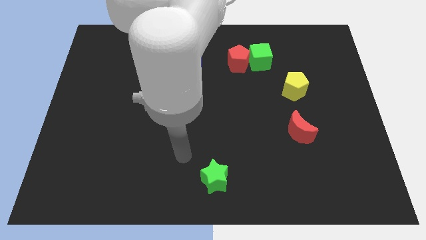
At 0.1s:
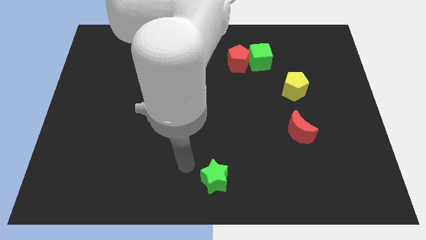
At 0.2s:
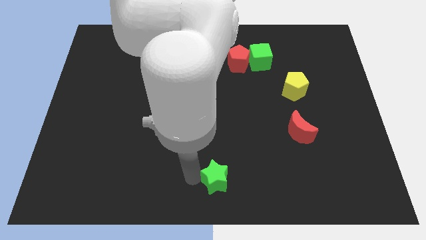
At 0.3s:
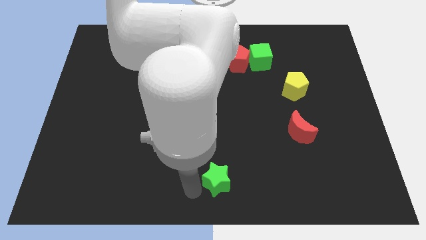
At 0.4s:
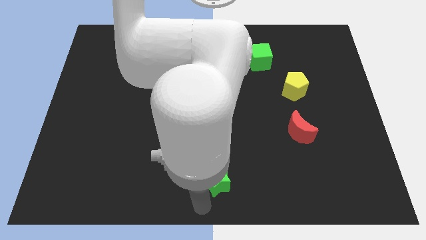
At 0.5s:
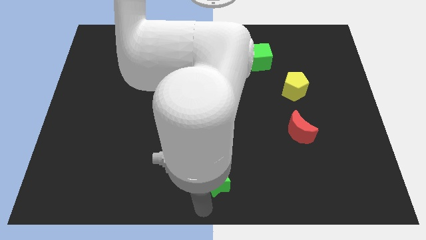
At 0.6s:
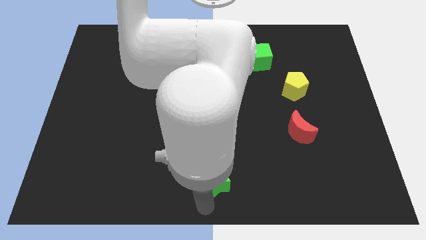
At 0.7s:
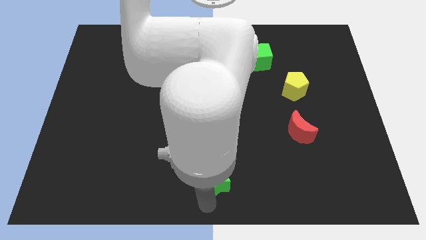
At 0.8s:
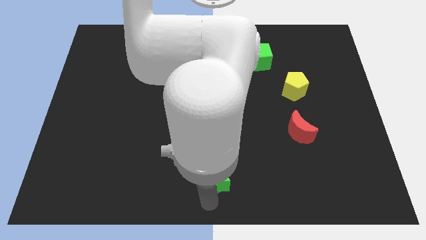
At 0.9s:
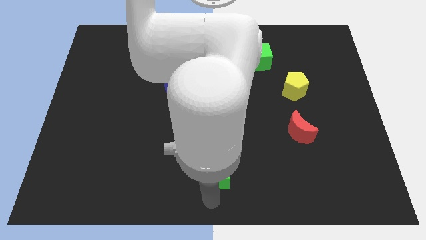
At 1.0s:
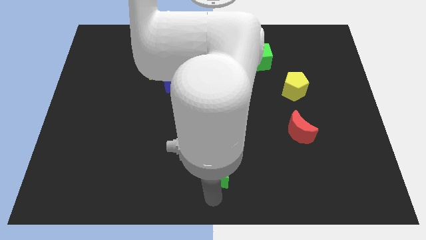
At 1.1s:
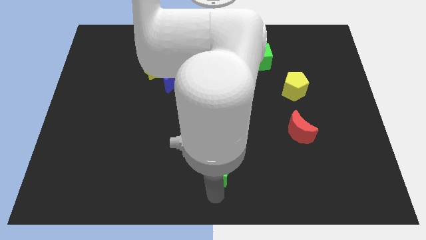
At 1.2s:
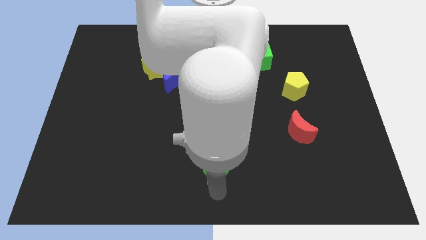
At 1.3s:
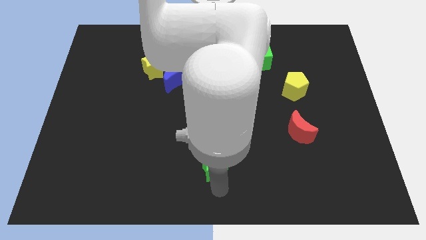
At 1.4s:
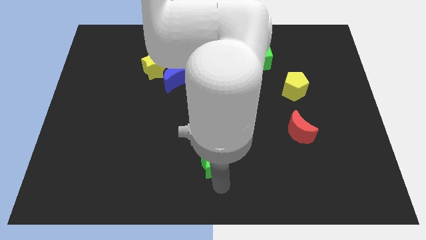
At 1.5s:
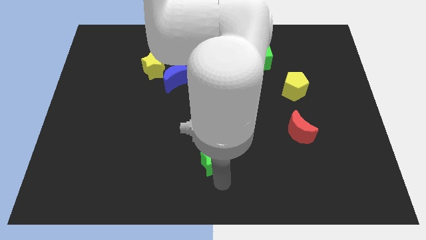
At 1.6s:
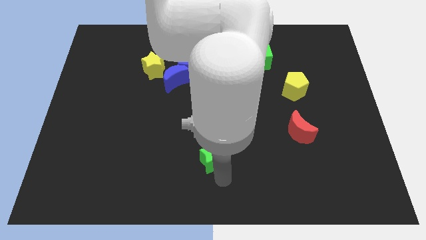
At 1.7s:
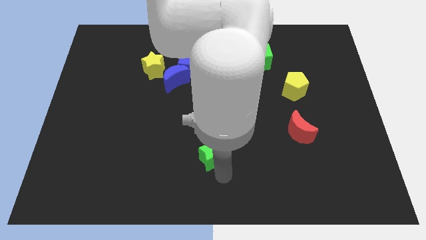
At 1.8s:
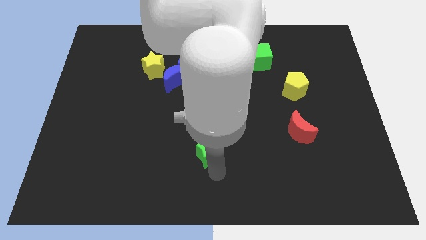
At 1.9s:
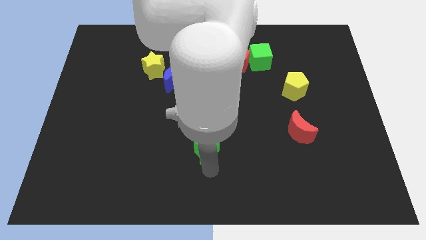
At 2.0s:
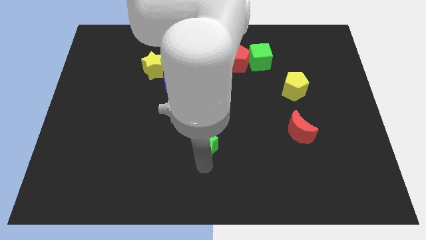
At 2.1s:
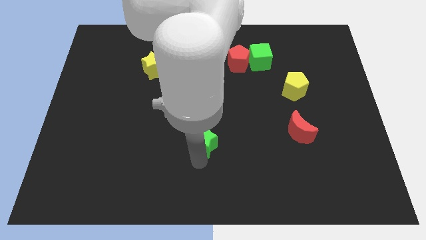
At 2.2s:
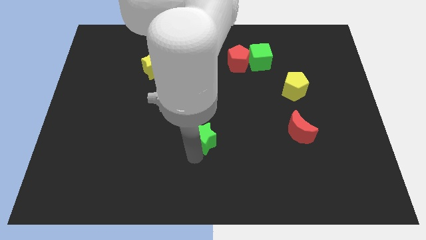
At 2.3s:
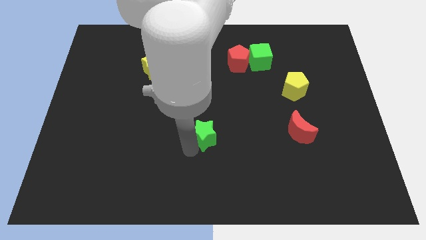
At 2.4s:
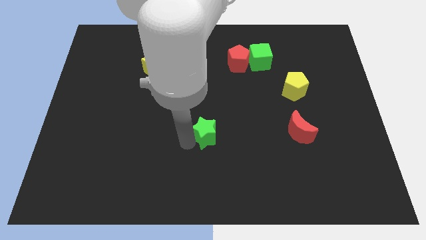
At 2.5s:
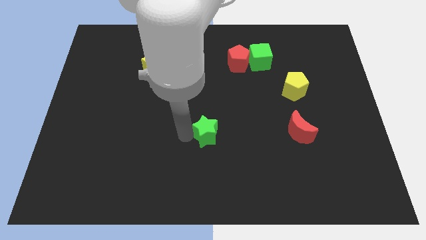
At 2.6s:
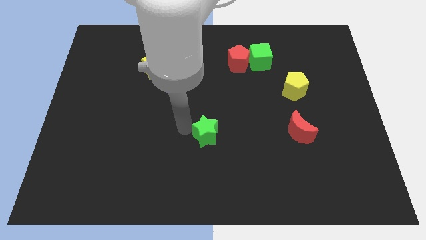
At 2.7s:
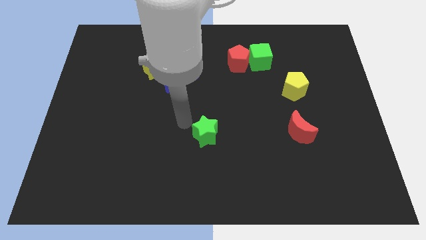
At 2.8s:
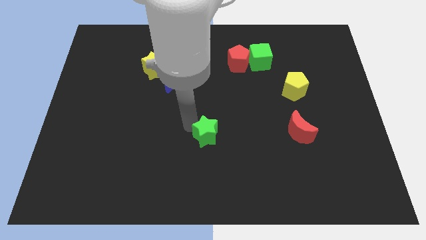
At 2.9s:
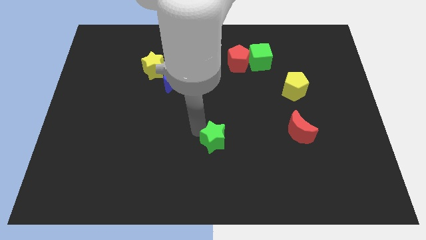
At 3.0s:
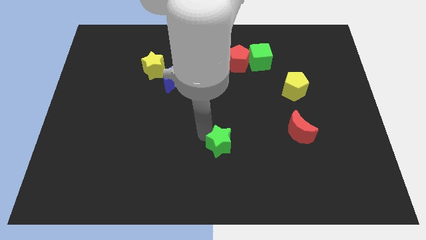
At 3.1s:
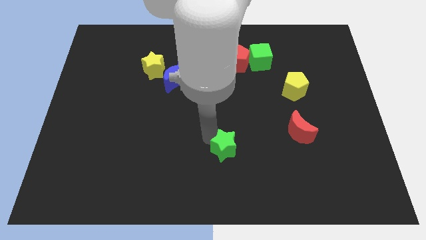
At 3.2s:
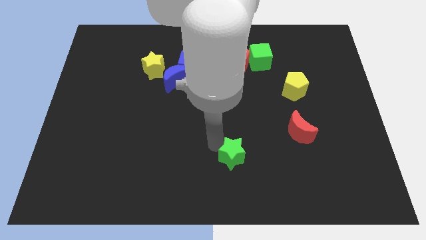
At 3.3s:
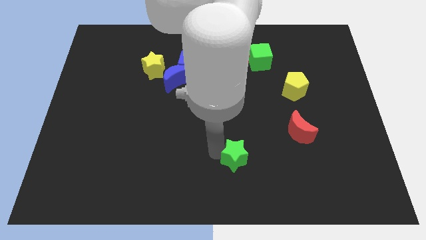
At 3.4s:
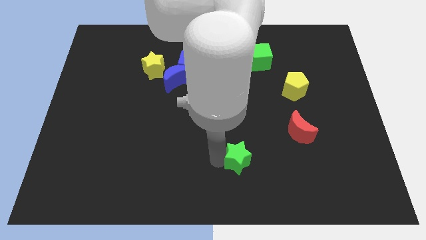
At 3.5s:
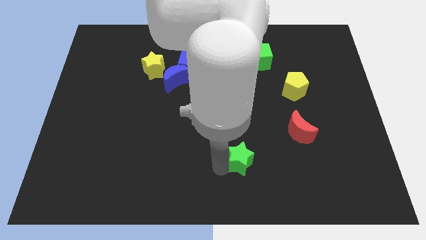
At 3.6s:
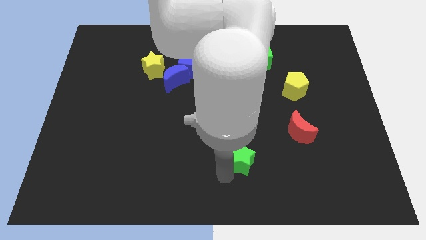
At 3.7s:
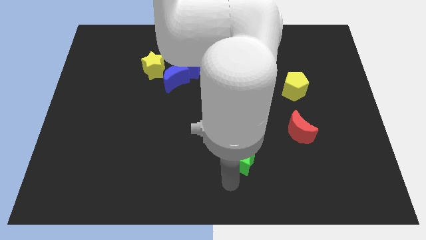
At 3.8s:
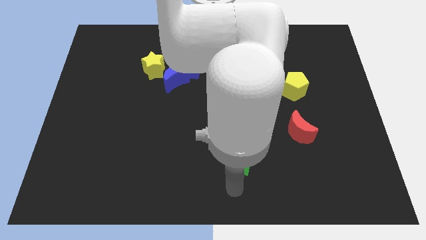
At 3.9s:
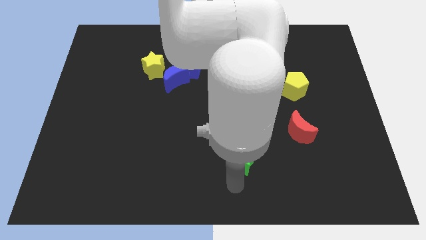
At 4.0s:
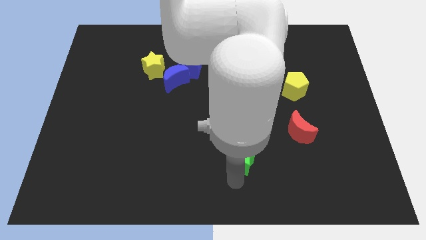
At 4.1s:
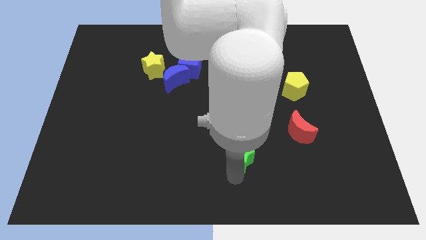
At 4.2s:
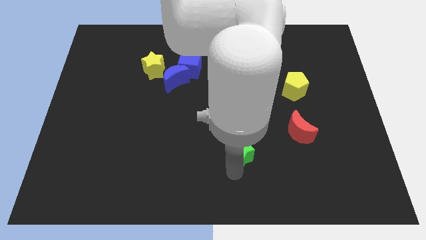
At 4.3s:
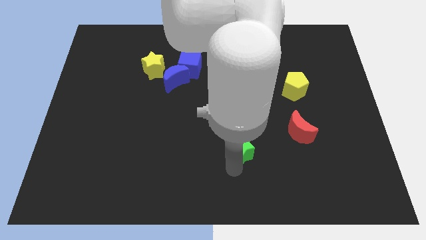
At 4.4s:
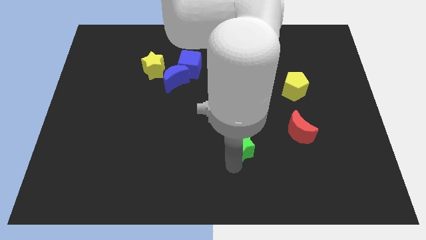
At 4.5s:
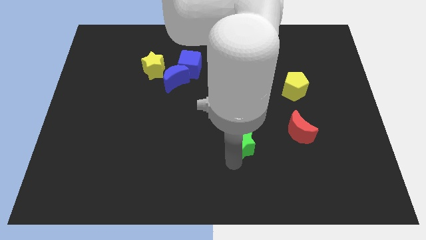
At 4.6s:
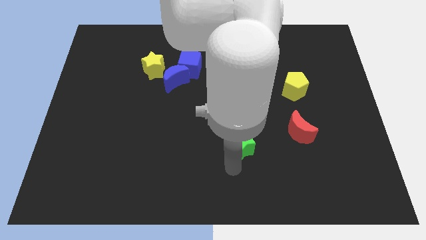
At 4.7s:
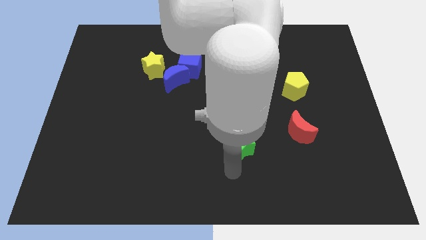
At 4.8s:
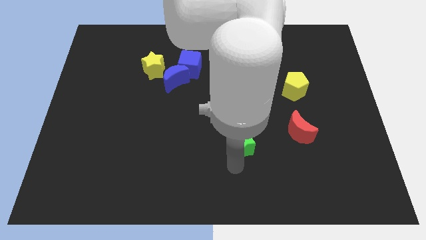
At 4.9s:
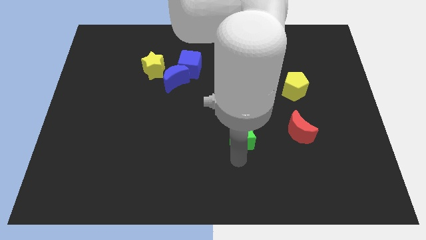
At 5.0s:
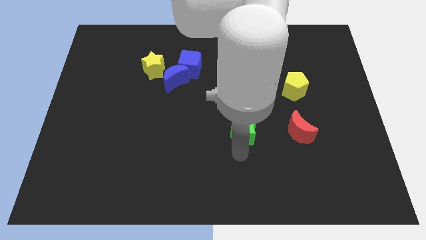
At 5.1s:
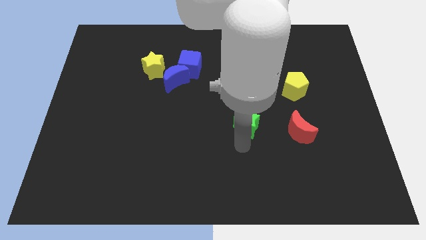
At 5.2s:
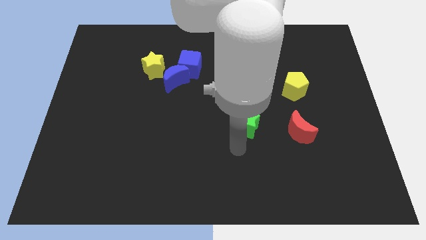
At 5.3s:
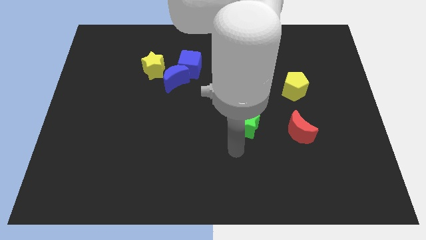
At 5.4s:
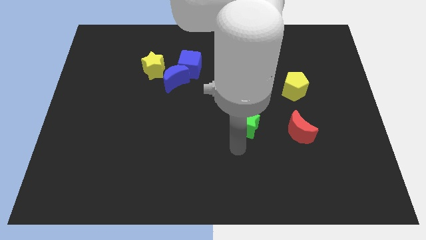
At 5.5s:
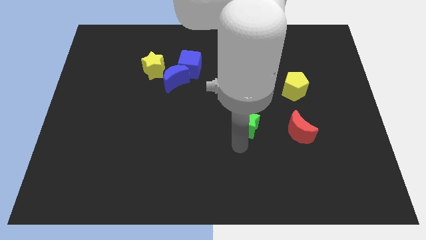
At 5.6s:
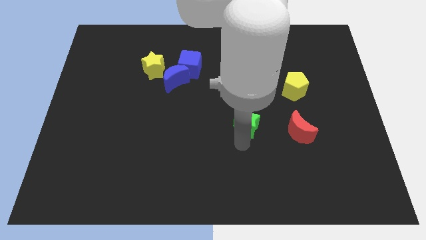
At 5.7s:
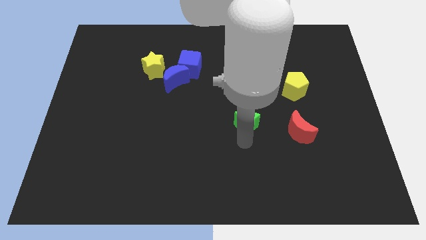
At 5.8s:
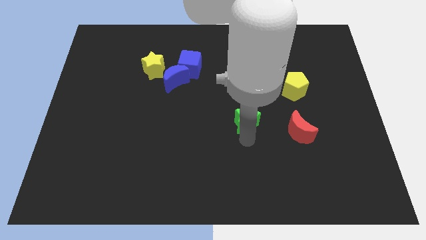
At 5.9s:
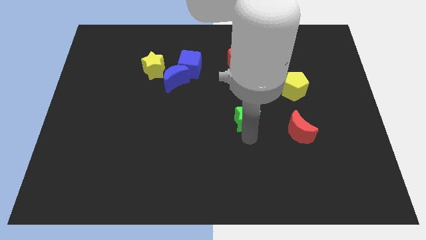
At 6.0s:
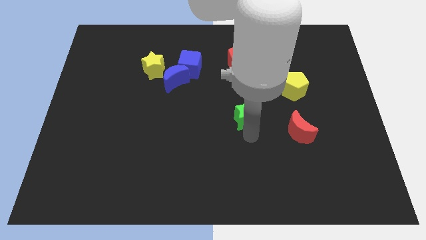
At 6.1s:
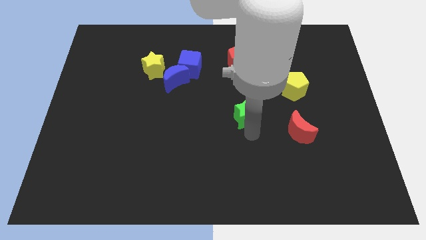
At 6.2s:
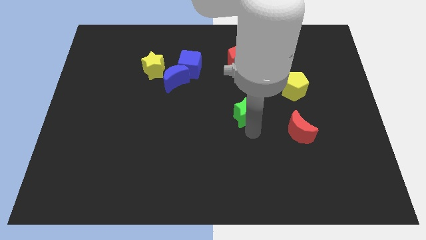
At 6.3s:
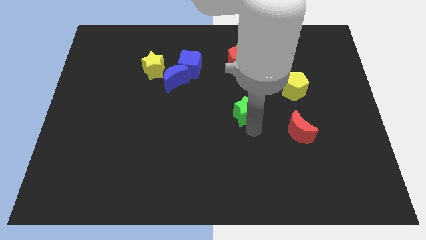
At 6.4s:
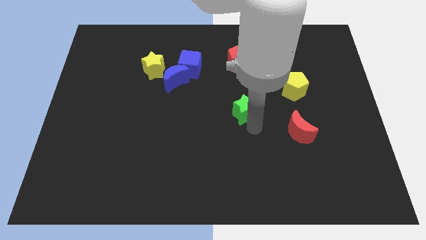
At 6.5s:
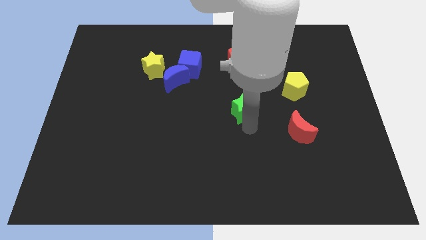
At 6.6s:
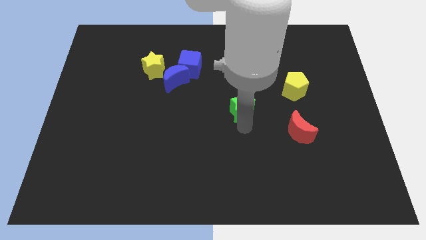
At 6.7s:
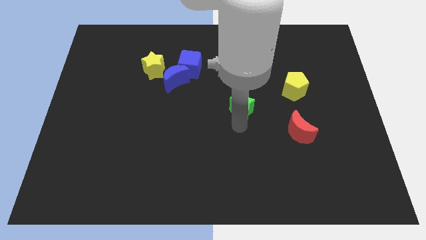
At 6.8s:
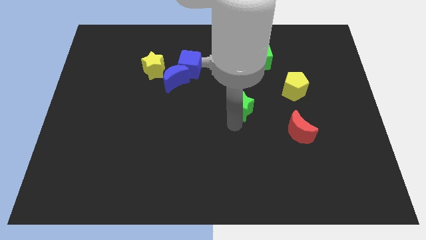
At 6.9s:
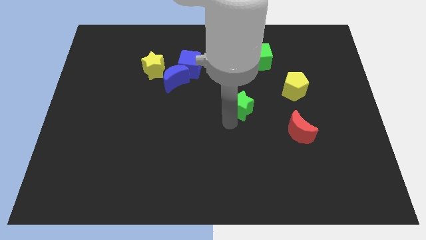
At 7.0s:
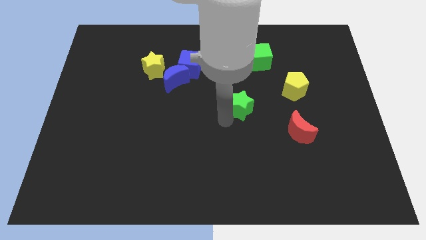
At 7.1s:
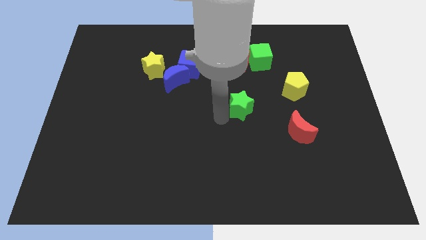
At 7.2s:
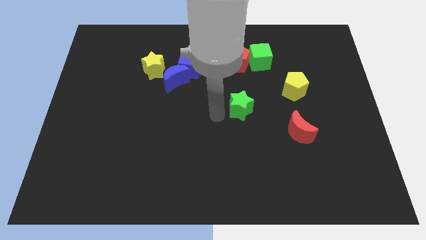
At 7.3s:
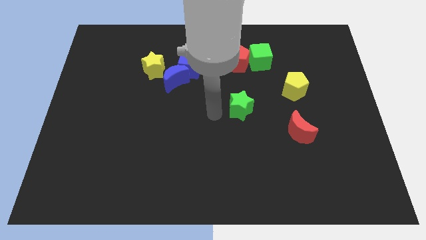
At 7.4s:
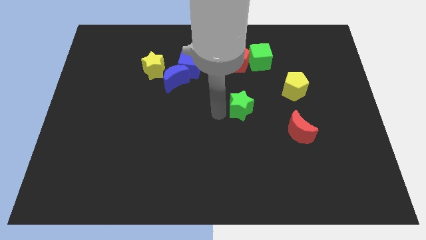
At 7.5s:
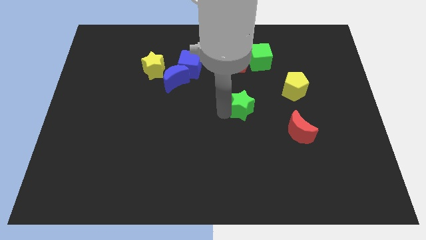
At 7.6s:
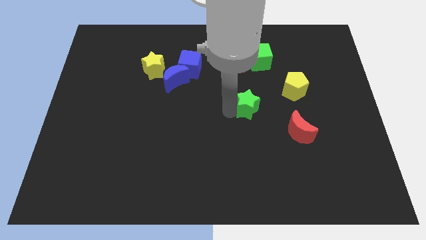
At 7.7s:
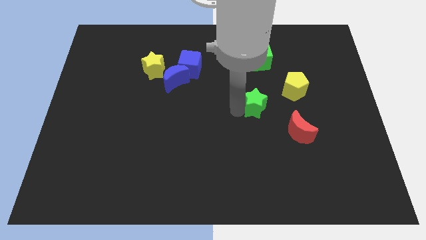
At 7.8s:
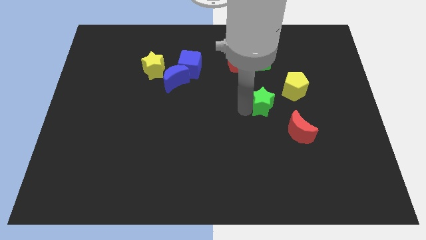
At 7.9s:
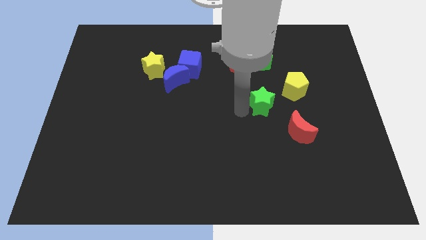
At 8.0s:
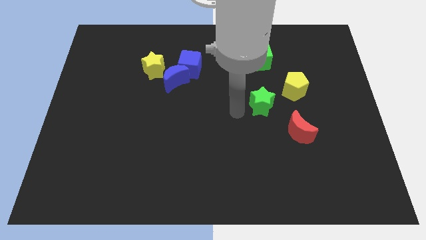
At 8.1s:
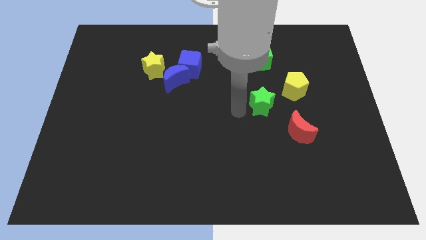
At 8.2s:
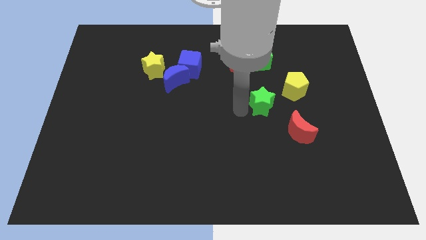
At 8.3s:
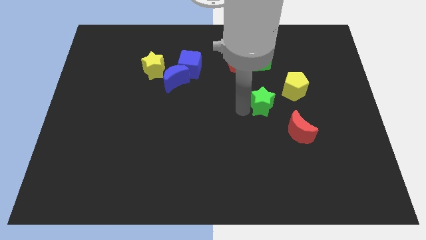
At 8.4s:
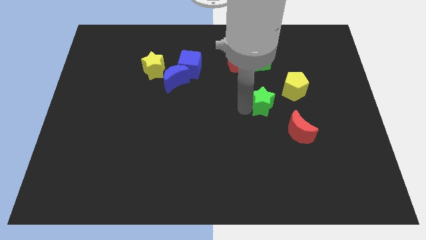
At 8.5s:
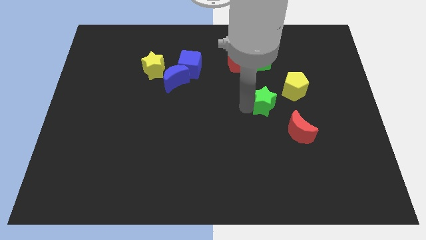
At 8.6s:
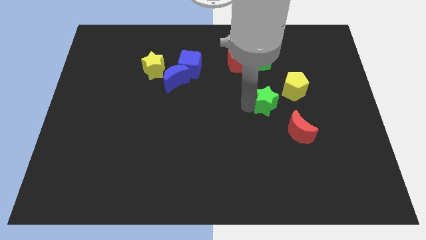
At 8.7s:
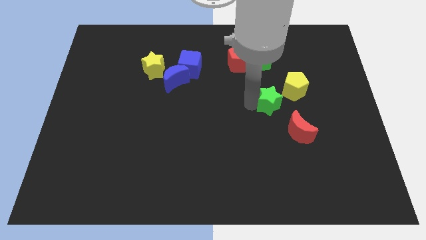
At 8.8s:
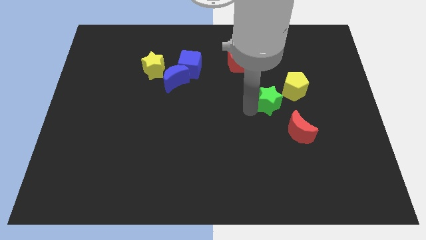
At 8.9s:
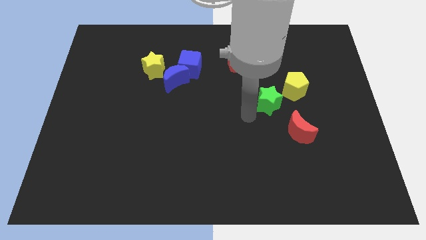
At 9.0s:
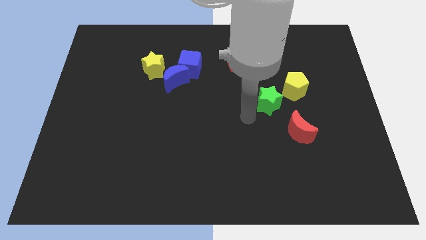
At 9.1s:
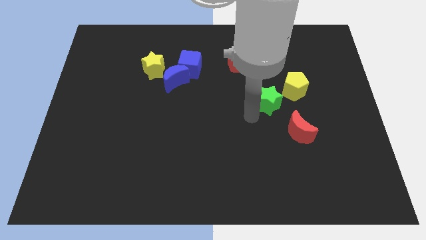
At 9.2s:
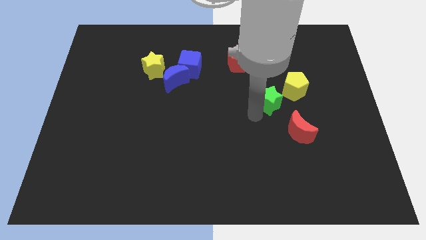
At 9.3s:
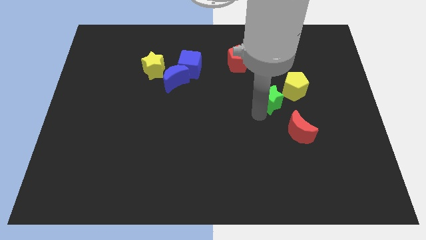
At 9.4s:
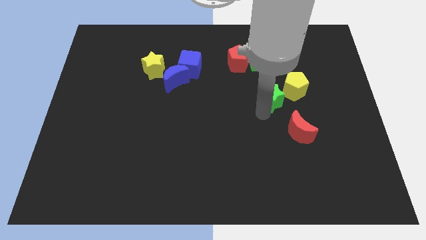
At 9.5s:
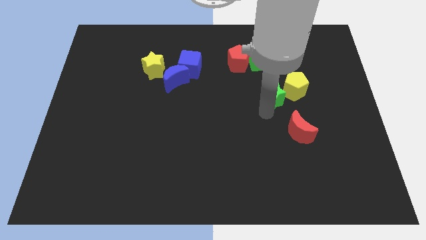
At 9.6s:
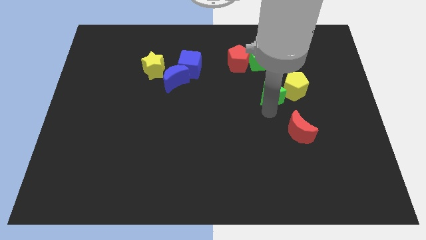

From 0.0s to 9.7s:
push the green star towards the yellow pentagon
